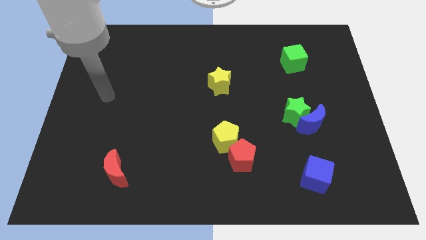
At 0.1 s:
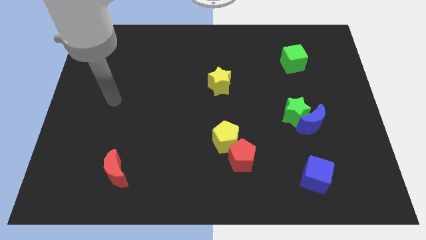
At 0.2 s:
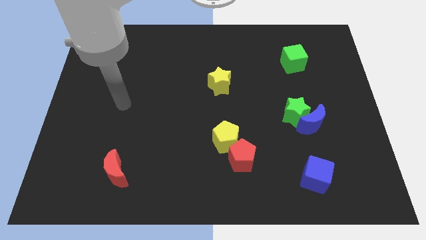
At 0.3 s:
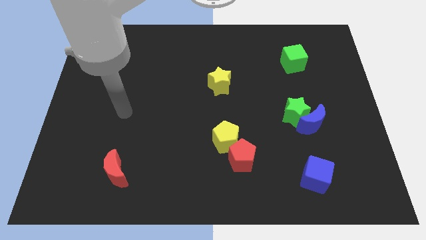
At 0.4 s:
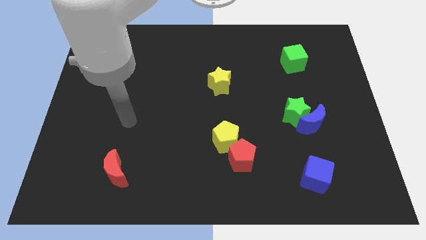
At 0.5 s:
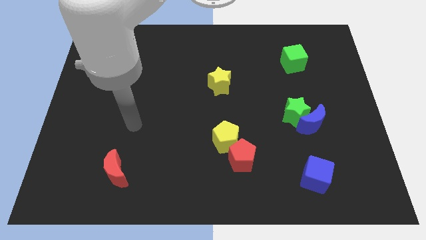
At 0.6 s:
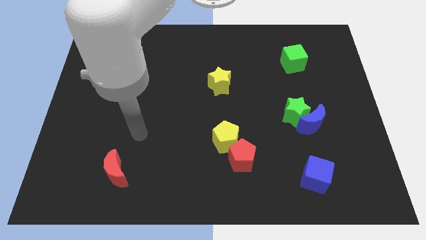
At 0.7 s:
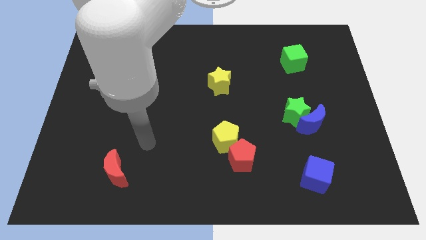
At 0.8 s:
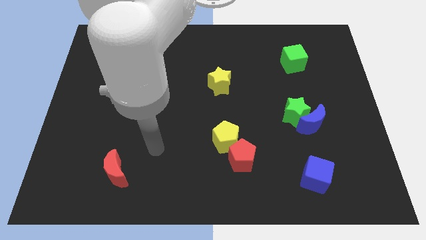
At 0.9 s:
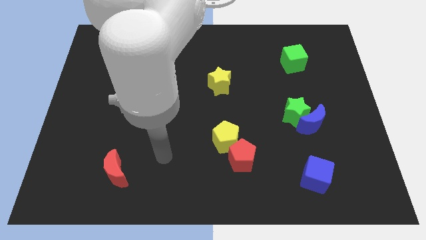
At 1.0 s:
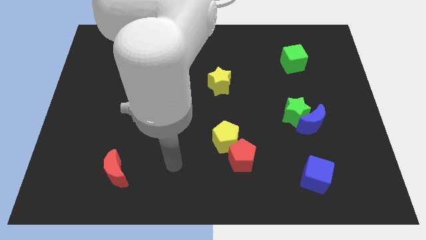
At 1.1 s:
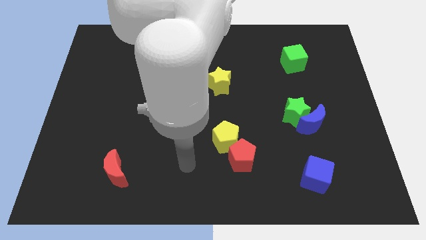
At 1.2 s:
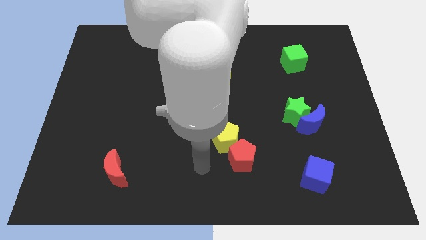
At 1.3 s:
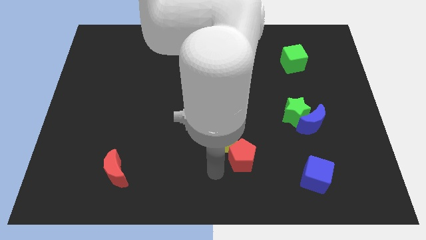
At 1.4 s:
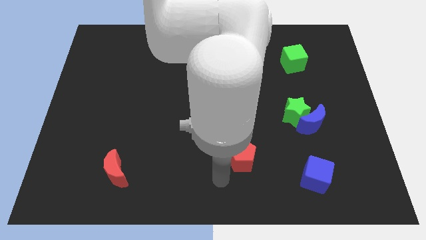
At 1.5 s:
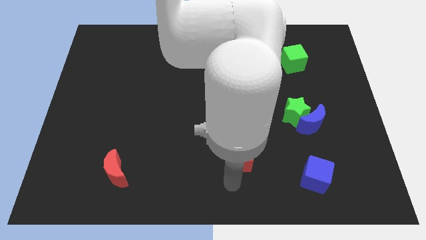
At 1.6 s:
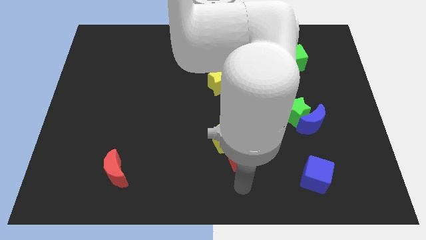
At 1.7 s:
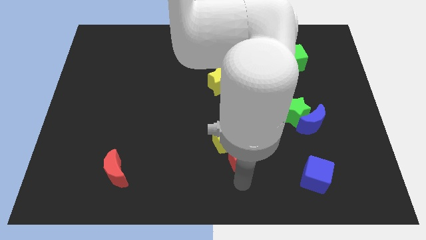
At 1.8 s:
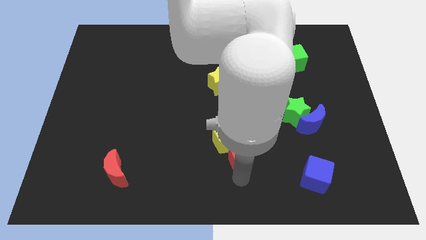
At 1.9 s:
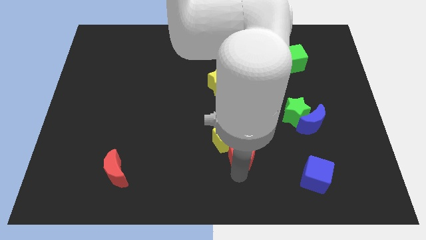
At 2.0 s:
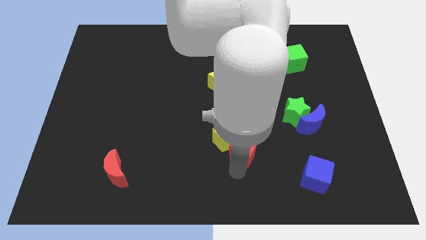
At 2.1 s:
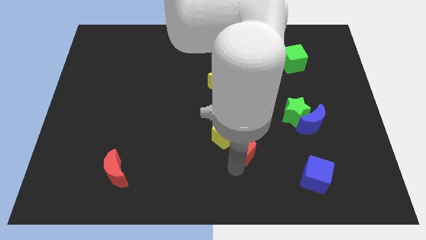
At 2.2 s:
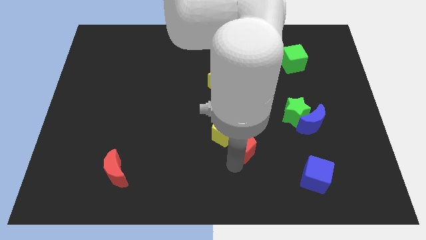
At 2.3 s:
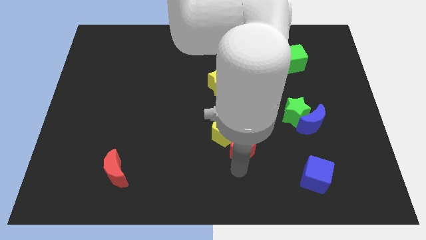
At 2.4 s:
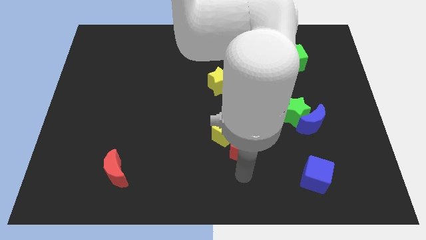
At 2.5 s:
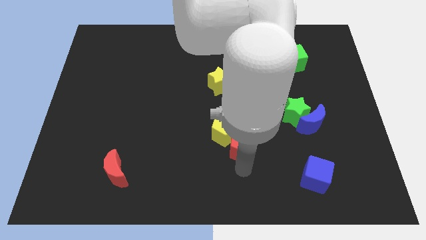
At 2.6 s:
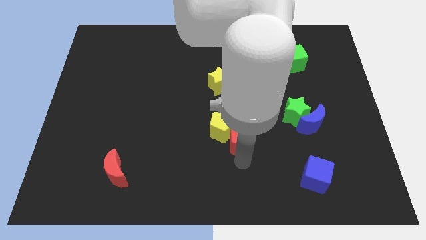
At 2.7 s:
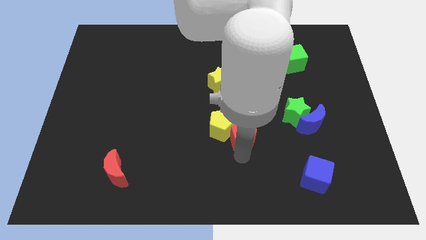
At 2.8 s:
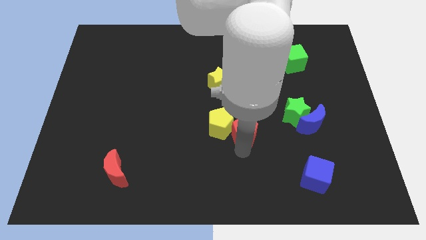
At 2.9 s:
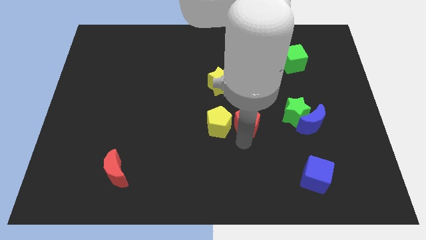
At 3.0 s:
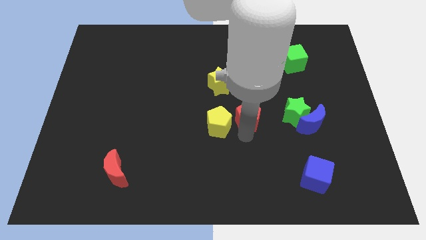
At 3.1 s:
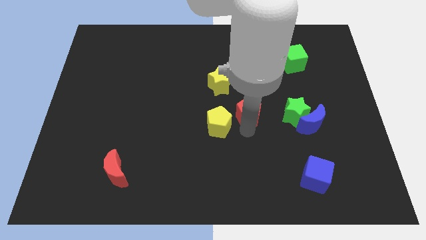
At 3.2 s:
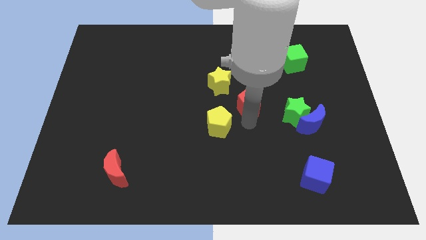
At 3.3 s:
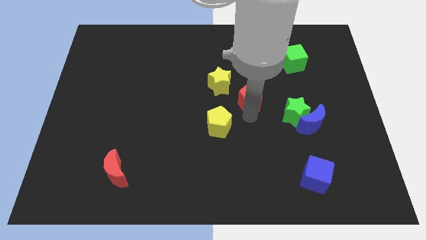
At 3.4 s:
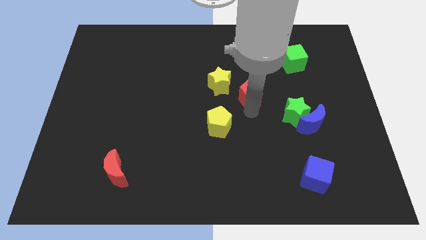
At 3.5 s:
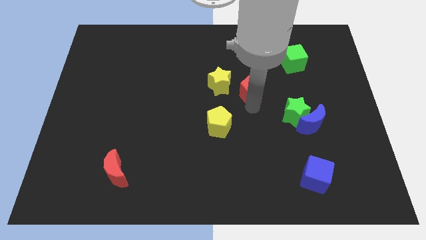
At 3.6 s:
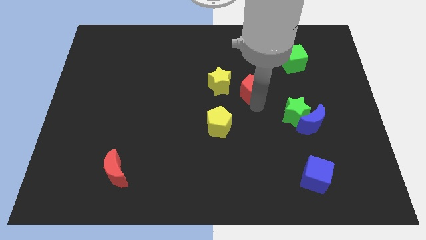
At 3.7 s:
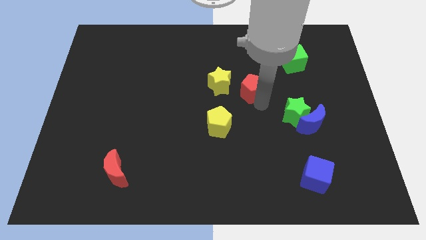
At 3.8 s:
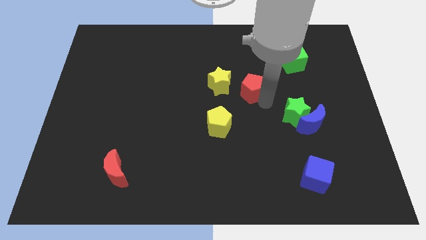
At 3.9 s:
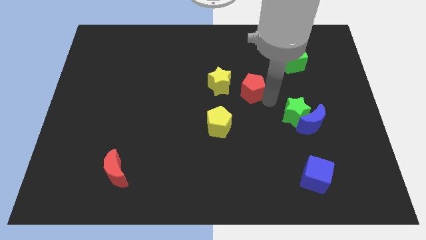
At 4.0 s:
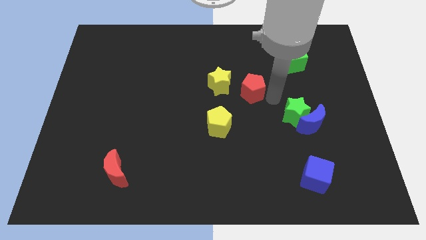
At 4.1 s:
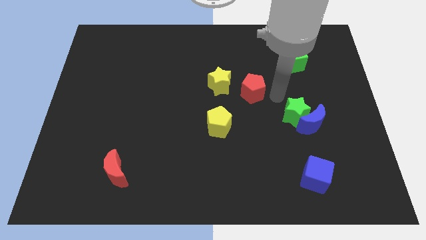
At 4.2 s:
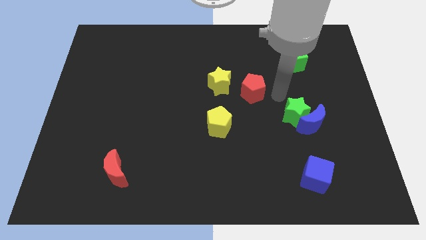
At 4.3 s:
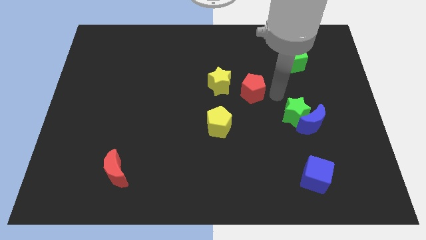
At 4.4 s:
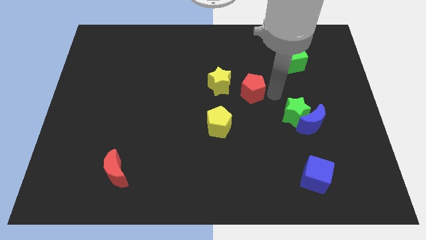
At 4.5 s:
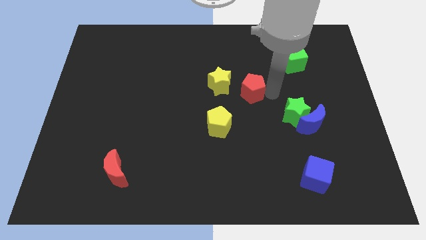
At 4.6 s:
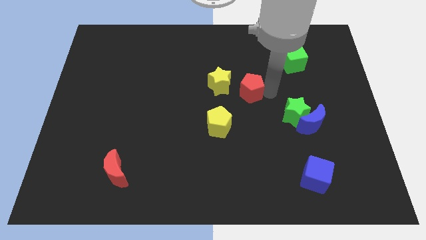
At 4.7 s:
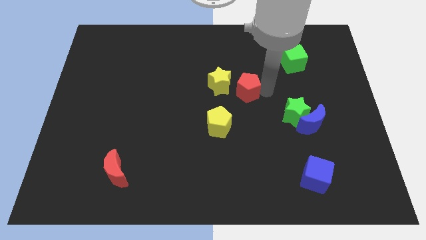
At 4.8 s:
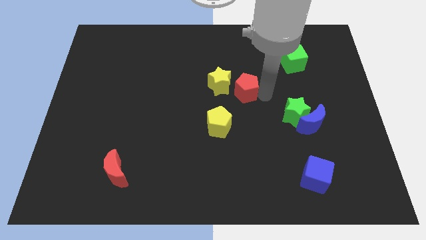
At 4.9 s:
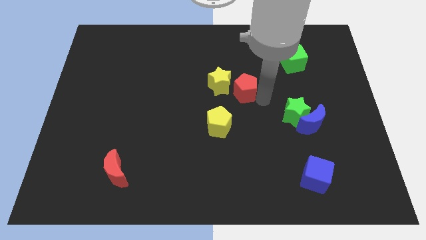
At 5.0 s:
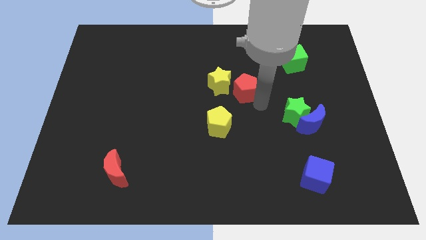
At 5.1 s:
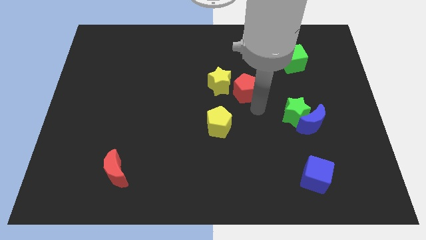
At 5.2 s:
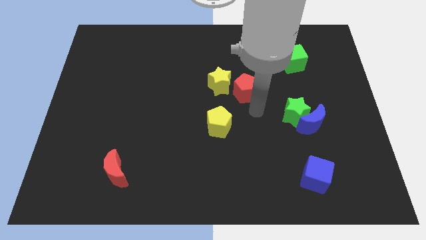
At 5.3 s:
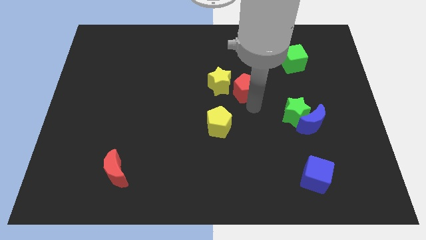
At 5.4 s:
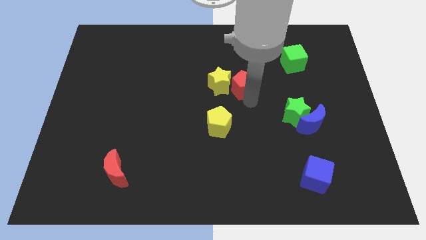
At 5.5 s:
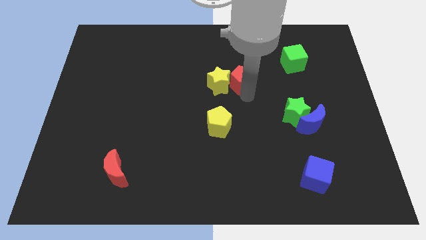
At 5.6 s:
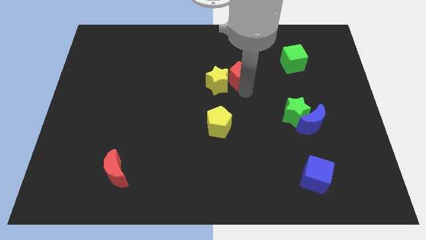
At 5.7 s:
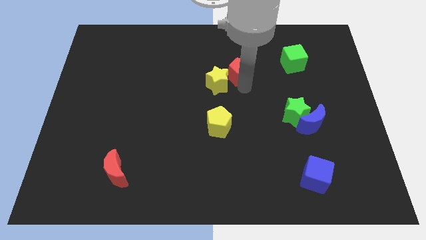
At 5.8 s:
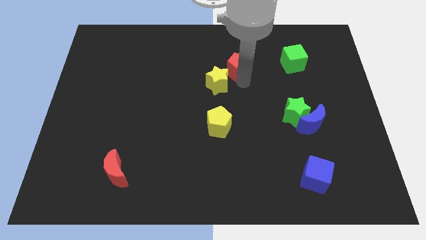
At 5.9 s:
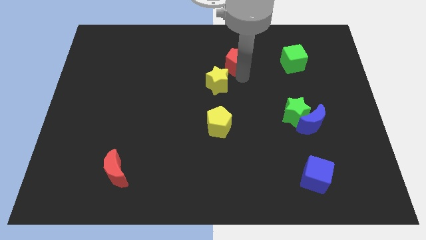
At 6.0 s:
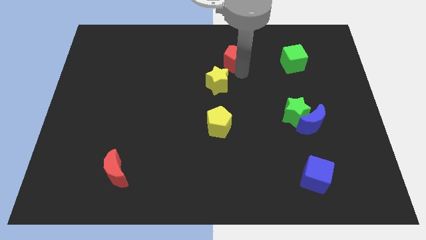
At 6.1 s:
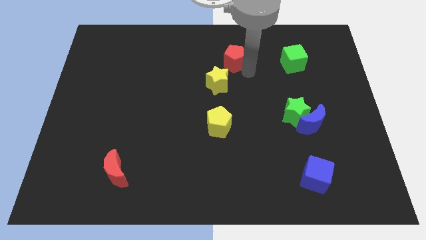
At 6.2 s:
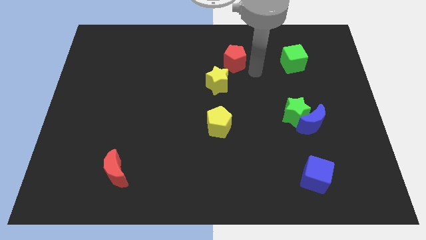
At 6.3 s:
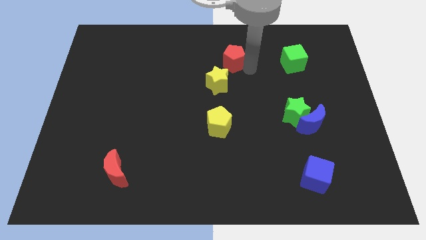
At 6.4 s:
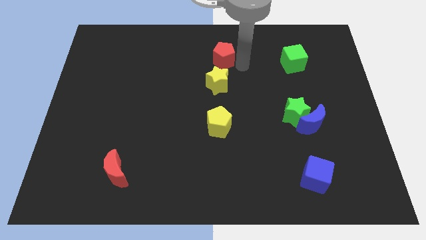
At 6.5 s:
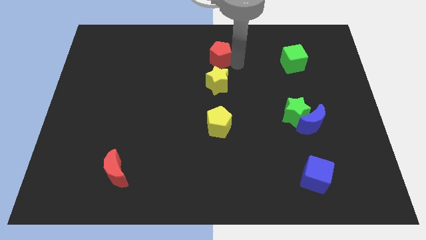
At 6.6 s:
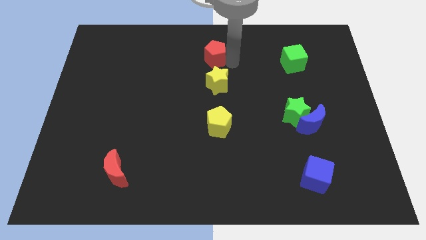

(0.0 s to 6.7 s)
slide the red pentagon to the top side

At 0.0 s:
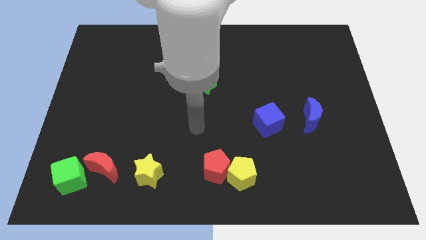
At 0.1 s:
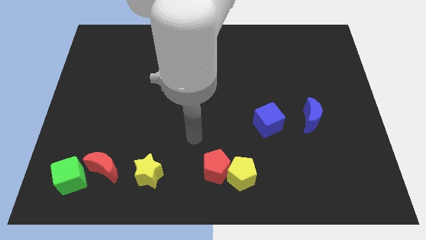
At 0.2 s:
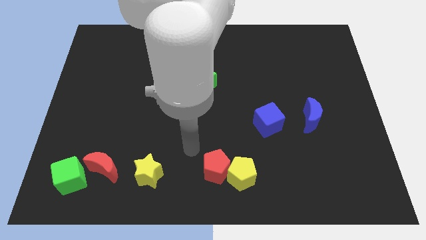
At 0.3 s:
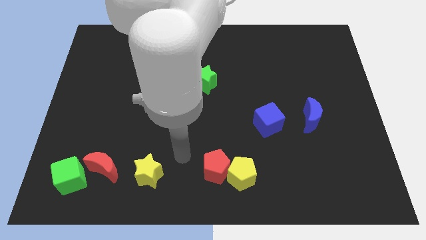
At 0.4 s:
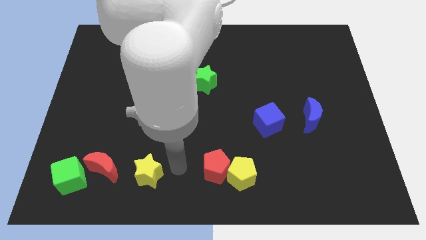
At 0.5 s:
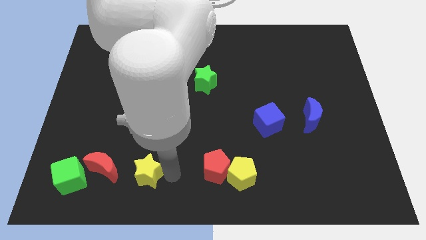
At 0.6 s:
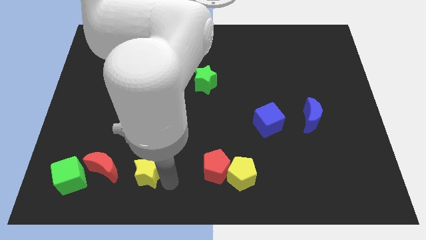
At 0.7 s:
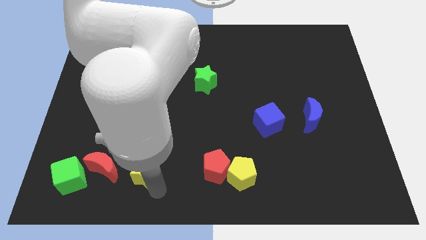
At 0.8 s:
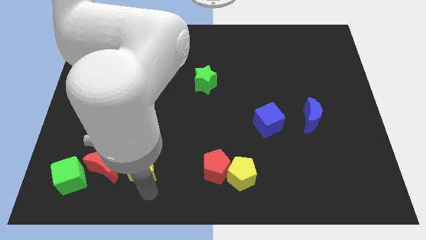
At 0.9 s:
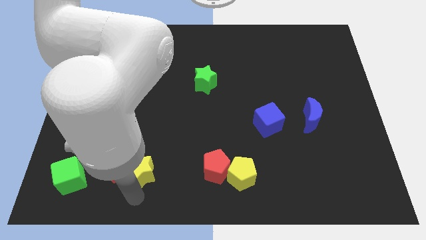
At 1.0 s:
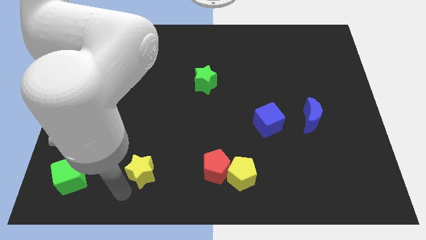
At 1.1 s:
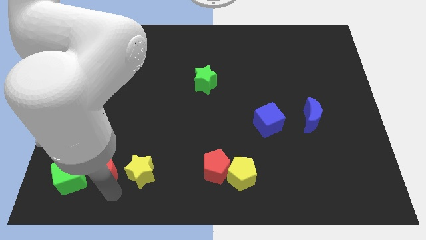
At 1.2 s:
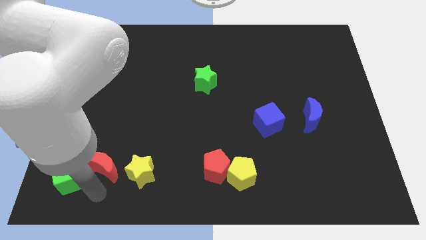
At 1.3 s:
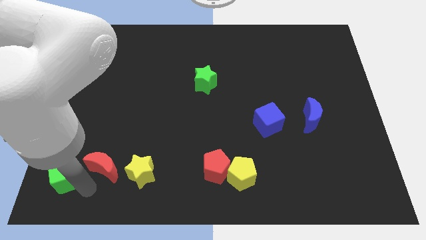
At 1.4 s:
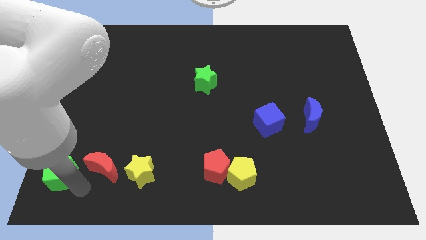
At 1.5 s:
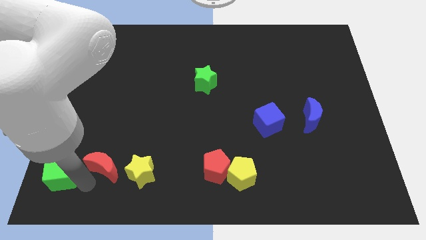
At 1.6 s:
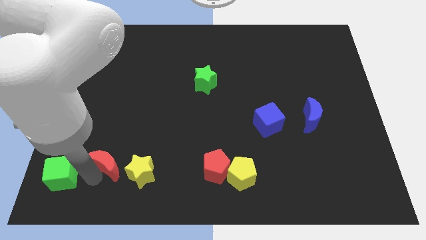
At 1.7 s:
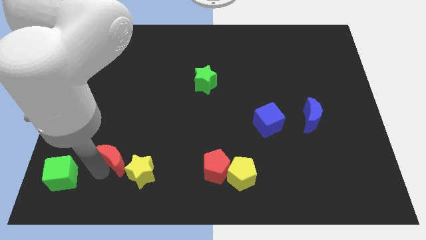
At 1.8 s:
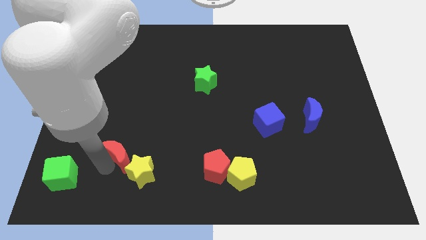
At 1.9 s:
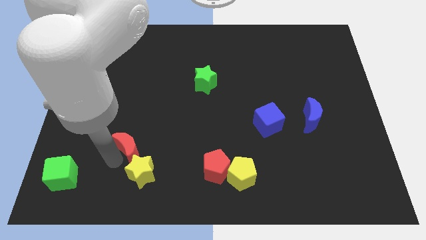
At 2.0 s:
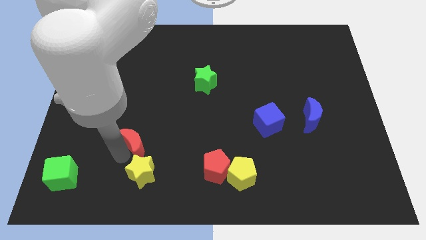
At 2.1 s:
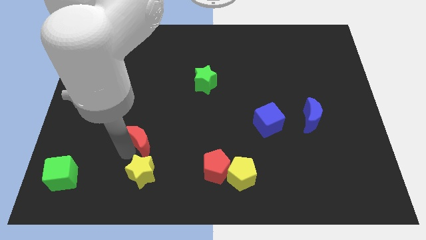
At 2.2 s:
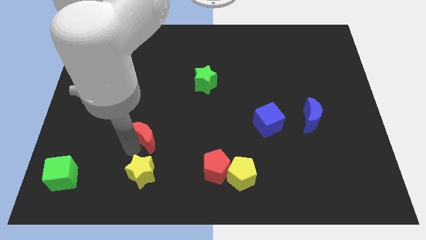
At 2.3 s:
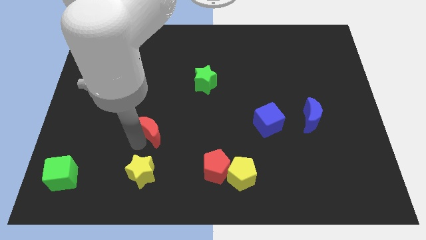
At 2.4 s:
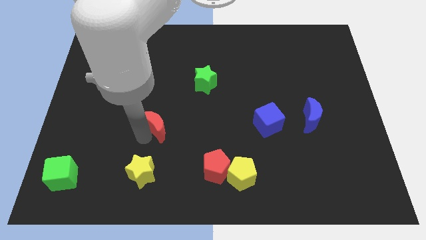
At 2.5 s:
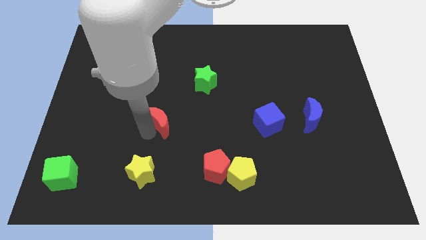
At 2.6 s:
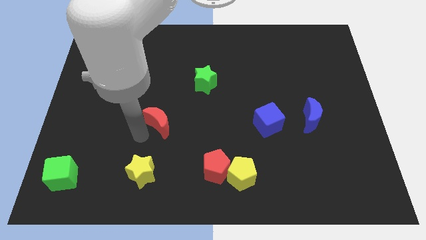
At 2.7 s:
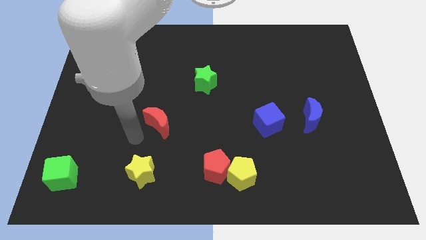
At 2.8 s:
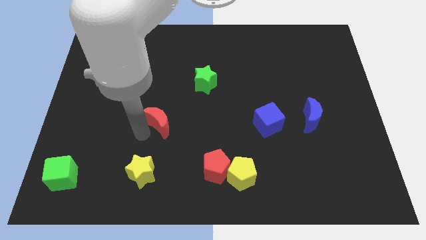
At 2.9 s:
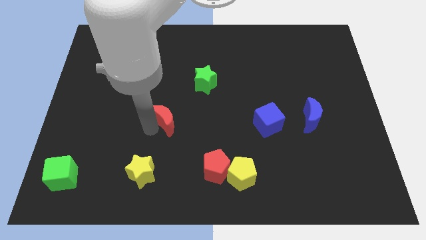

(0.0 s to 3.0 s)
put the red moon to the middle of the board
